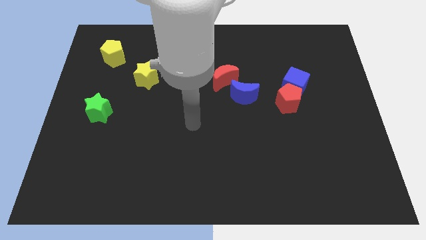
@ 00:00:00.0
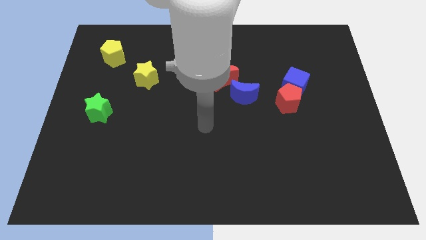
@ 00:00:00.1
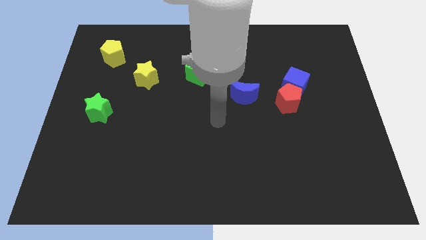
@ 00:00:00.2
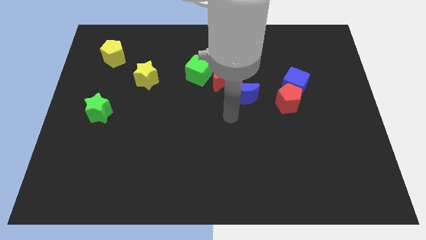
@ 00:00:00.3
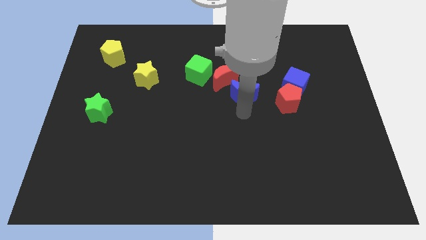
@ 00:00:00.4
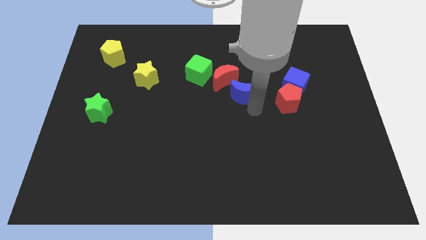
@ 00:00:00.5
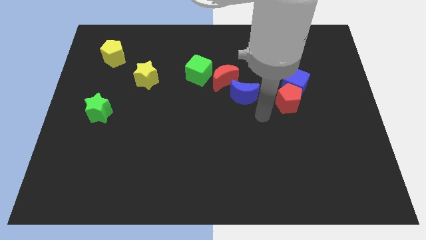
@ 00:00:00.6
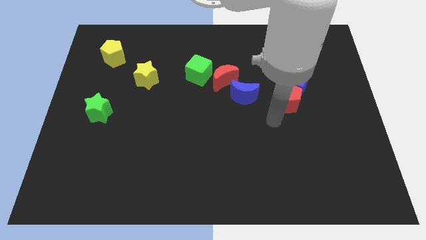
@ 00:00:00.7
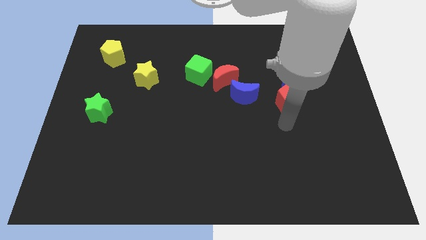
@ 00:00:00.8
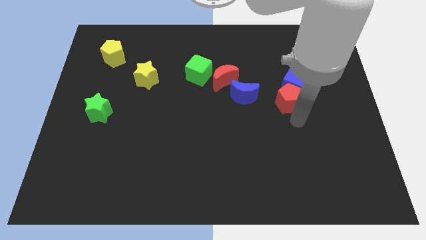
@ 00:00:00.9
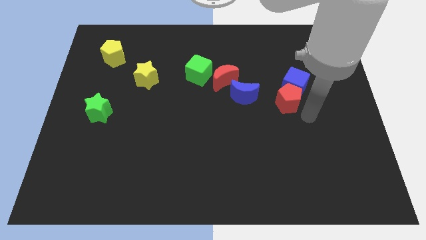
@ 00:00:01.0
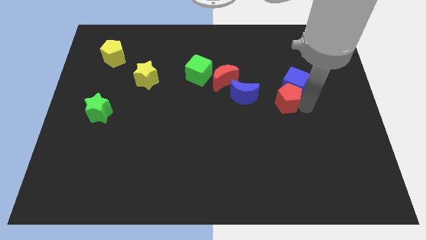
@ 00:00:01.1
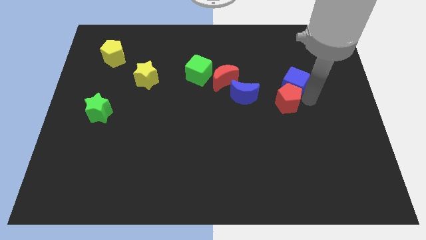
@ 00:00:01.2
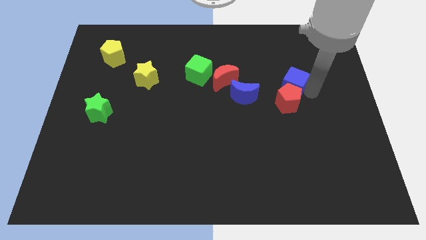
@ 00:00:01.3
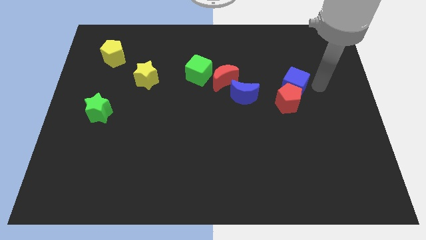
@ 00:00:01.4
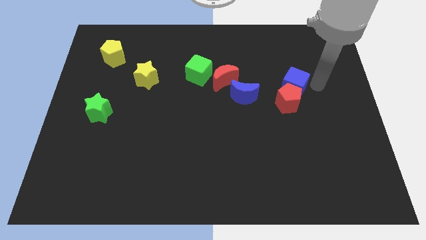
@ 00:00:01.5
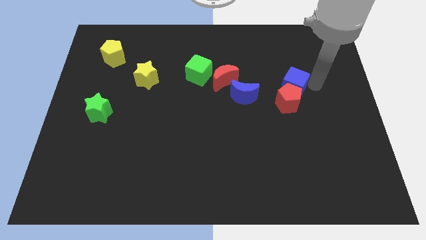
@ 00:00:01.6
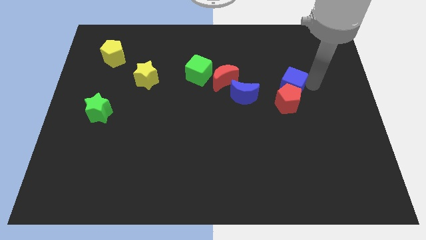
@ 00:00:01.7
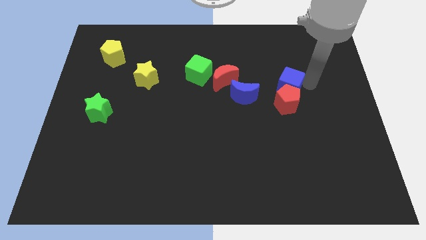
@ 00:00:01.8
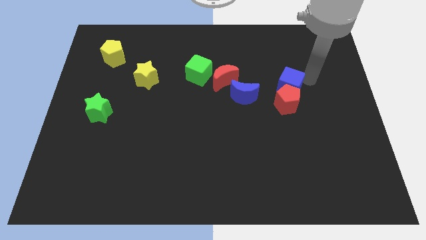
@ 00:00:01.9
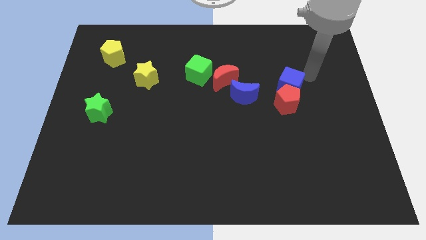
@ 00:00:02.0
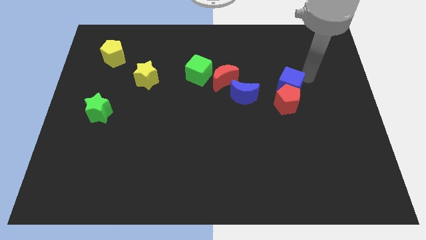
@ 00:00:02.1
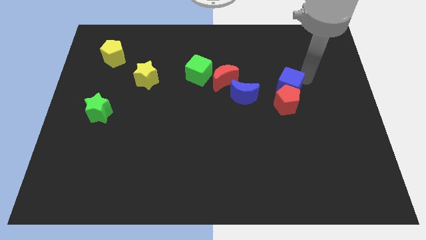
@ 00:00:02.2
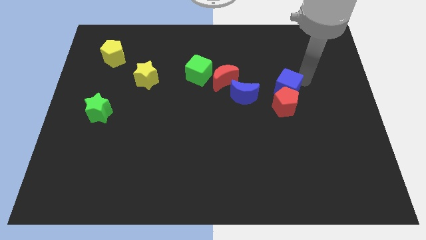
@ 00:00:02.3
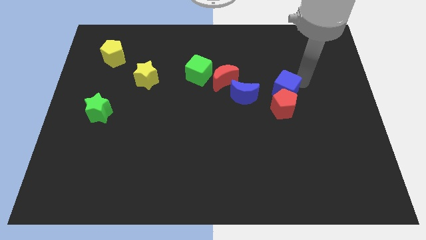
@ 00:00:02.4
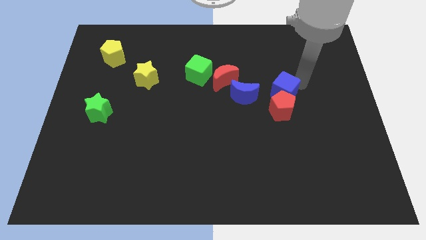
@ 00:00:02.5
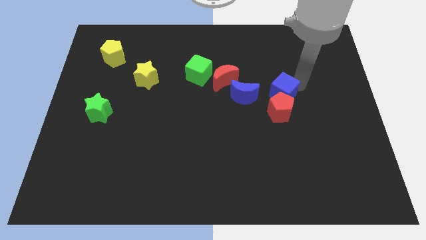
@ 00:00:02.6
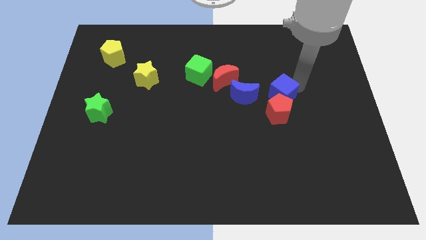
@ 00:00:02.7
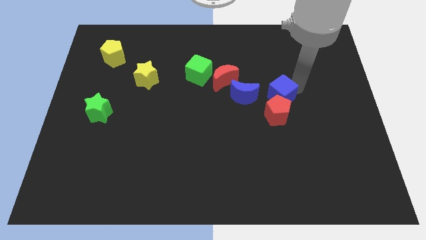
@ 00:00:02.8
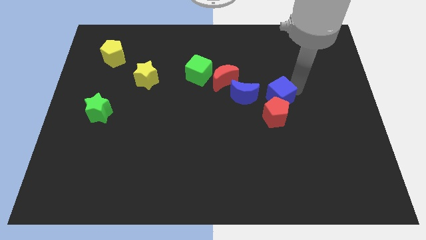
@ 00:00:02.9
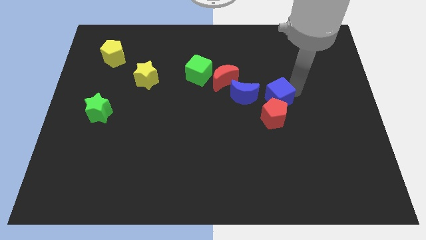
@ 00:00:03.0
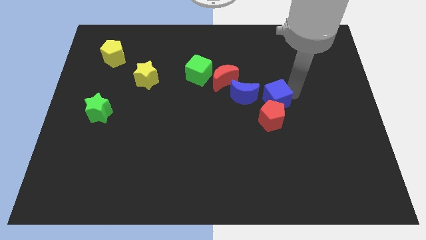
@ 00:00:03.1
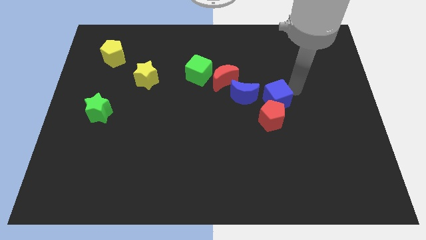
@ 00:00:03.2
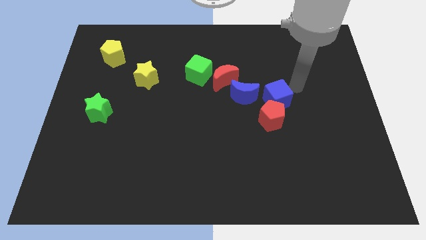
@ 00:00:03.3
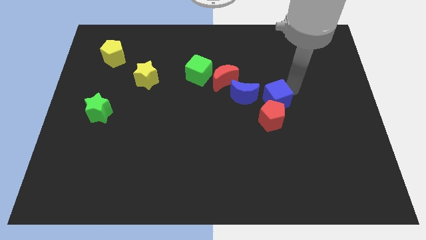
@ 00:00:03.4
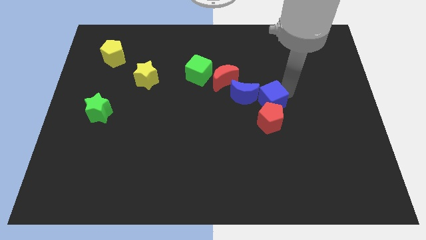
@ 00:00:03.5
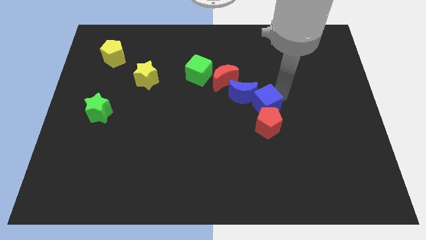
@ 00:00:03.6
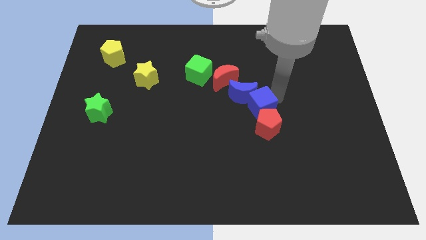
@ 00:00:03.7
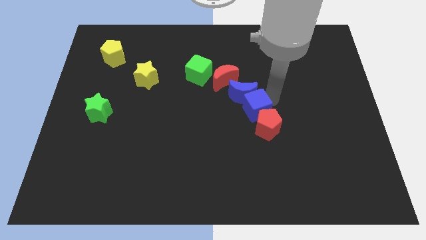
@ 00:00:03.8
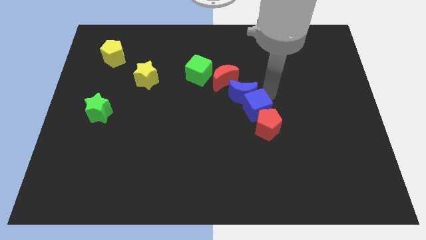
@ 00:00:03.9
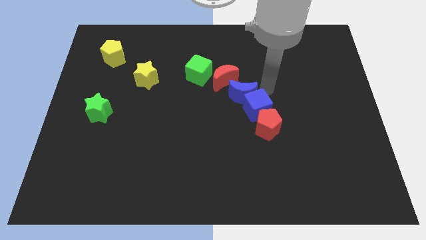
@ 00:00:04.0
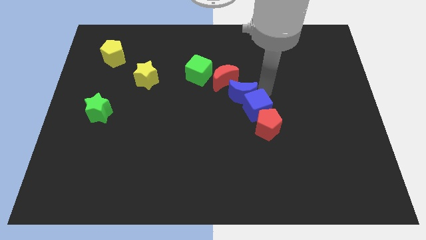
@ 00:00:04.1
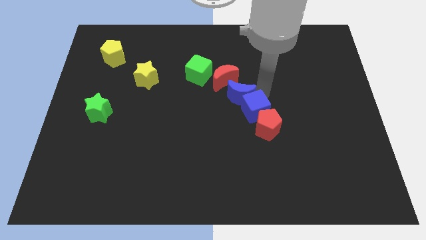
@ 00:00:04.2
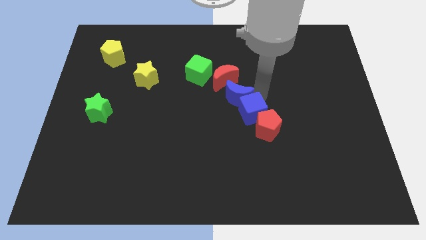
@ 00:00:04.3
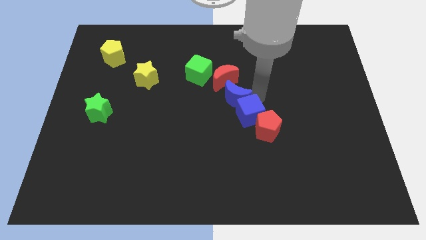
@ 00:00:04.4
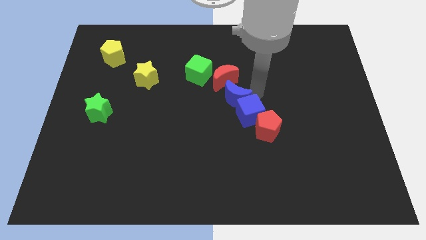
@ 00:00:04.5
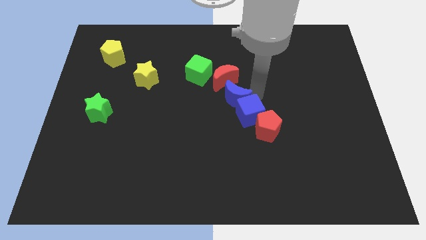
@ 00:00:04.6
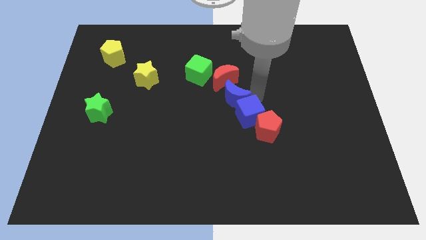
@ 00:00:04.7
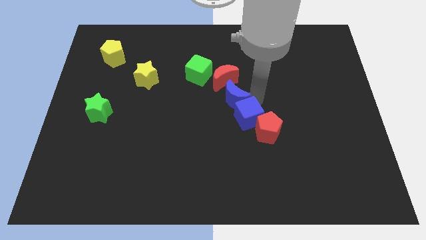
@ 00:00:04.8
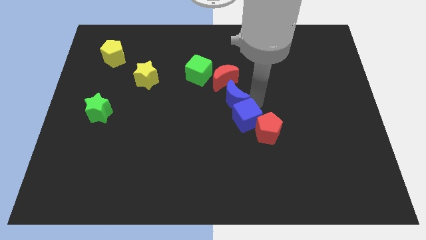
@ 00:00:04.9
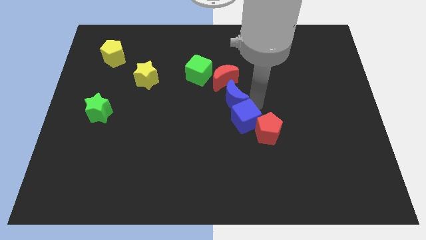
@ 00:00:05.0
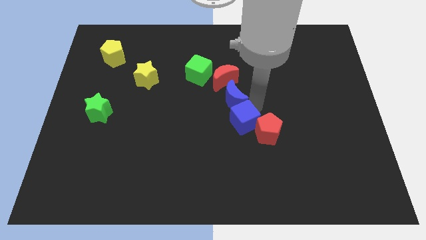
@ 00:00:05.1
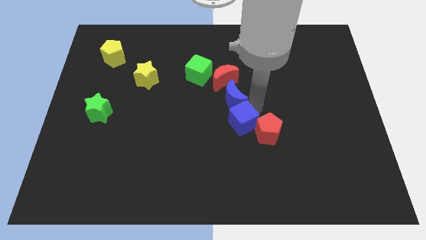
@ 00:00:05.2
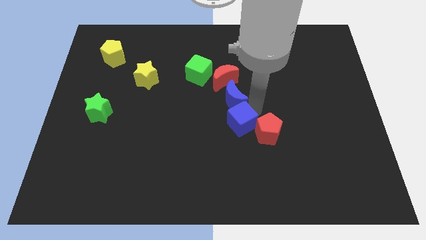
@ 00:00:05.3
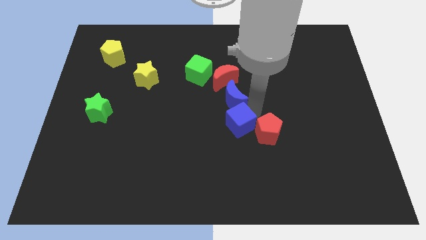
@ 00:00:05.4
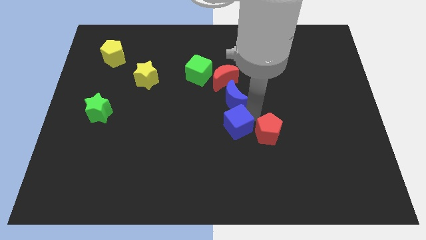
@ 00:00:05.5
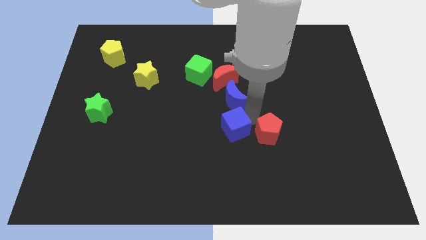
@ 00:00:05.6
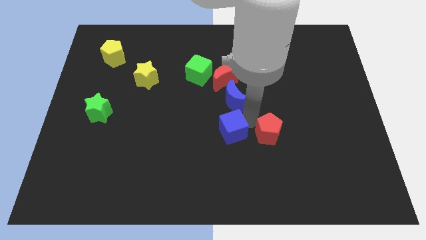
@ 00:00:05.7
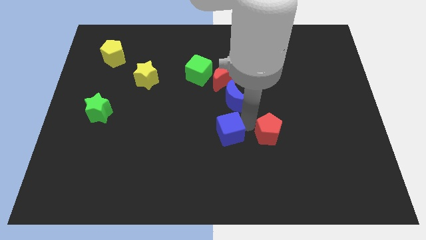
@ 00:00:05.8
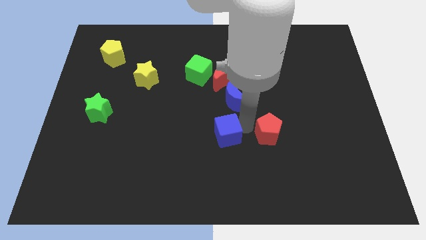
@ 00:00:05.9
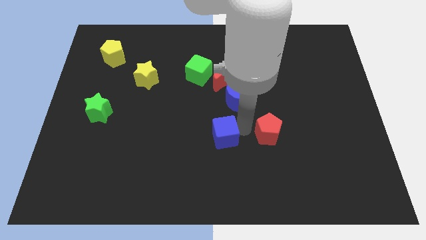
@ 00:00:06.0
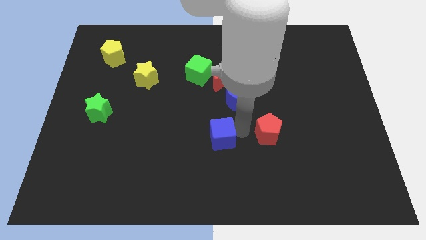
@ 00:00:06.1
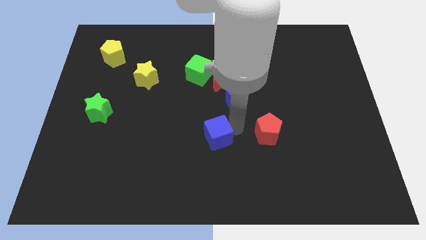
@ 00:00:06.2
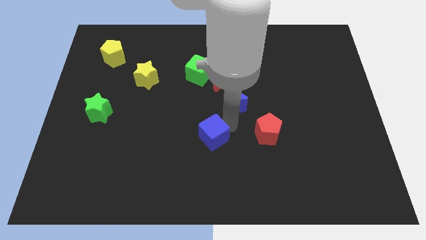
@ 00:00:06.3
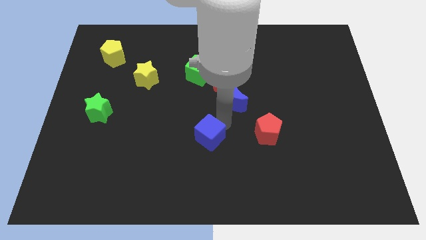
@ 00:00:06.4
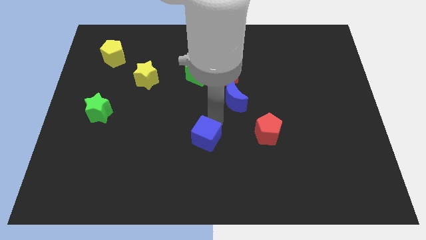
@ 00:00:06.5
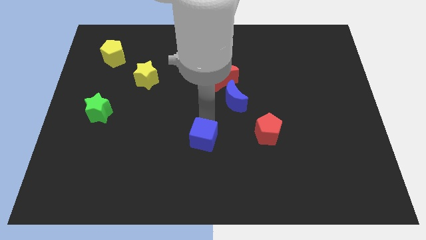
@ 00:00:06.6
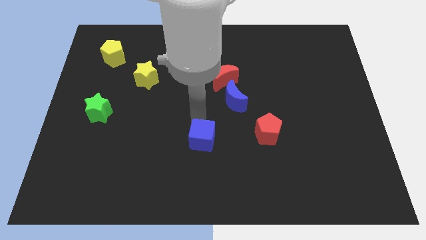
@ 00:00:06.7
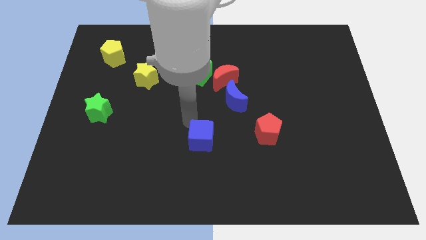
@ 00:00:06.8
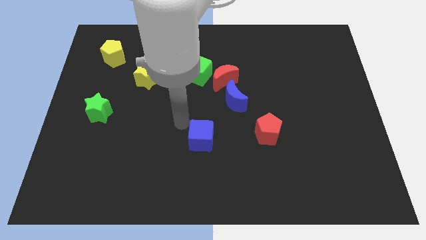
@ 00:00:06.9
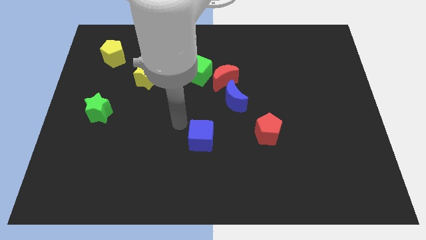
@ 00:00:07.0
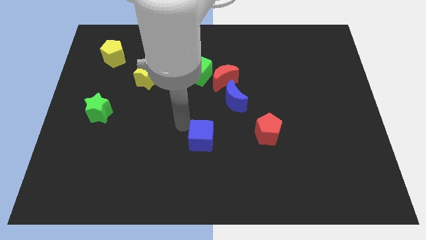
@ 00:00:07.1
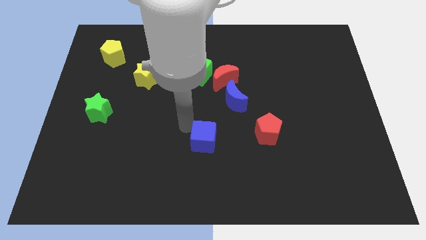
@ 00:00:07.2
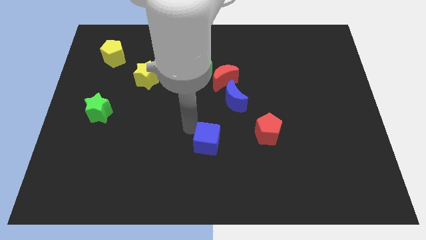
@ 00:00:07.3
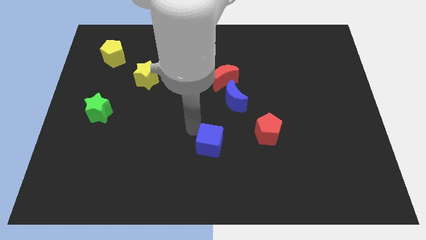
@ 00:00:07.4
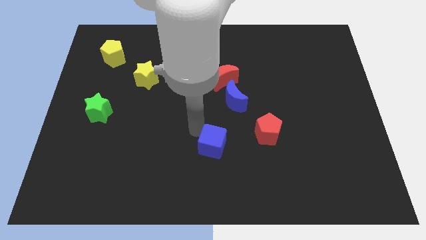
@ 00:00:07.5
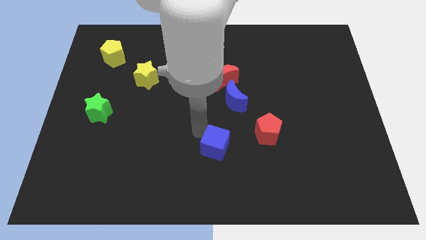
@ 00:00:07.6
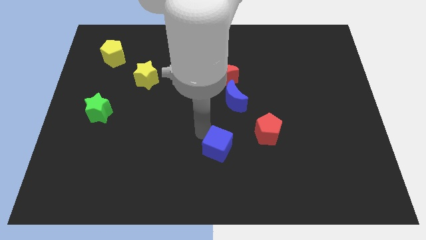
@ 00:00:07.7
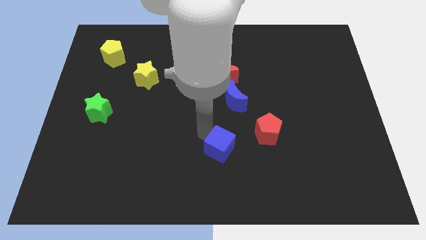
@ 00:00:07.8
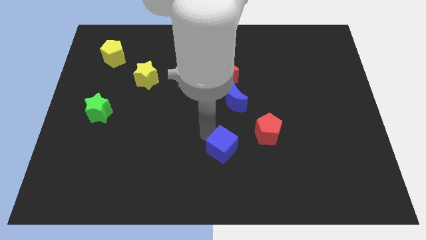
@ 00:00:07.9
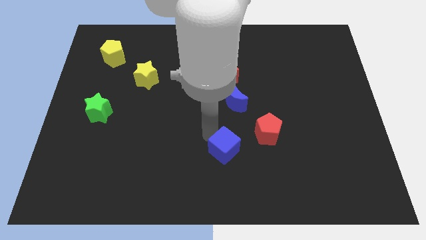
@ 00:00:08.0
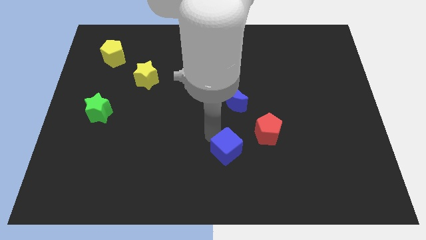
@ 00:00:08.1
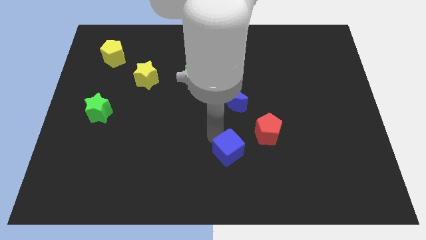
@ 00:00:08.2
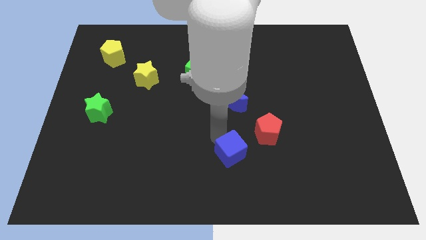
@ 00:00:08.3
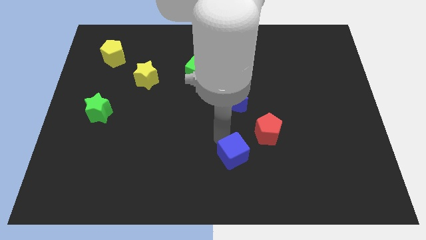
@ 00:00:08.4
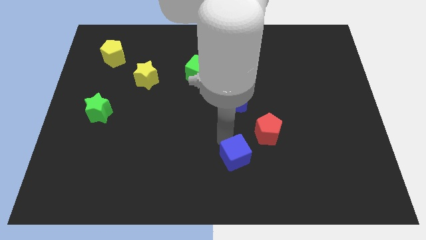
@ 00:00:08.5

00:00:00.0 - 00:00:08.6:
put the blue cube to the bottom
